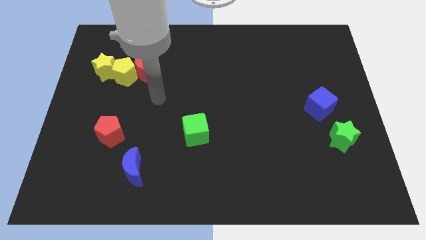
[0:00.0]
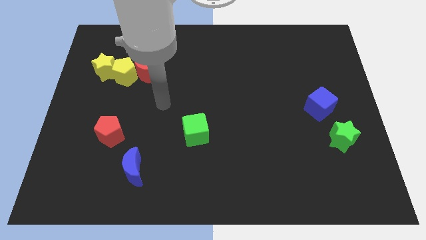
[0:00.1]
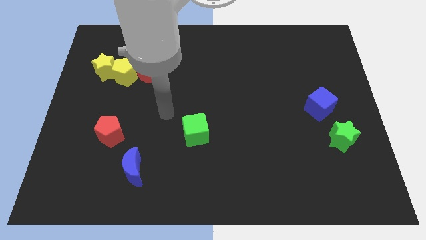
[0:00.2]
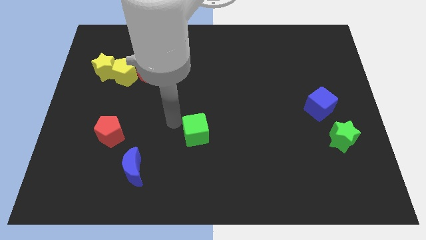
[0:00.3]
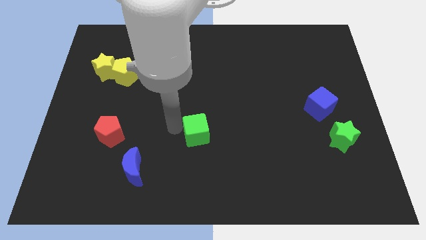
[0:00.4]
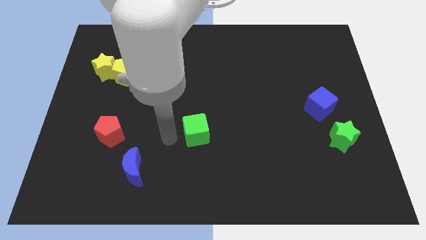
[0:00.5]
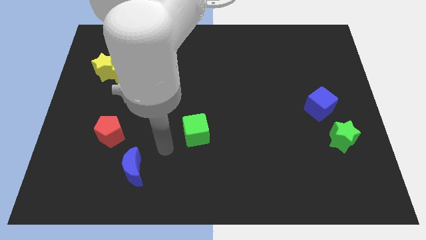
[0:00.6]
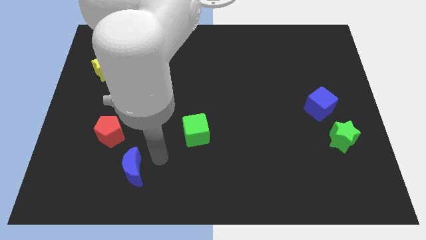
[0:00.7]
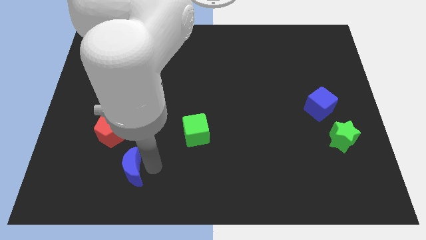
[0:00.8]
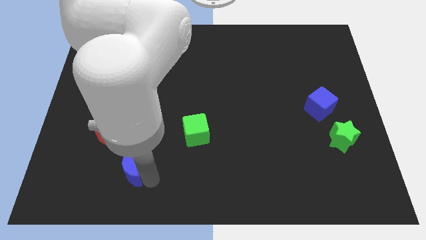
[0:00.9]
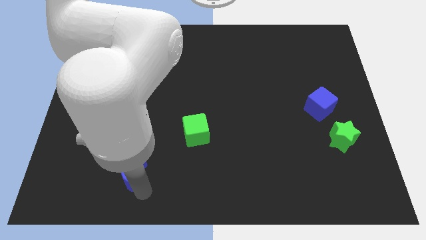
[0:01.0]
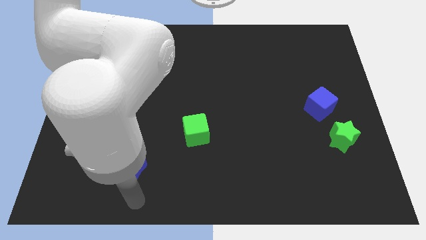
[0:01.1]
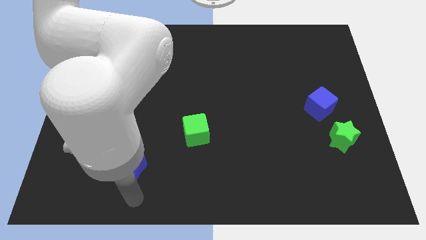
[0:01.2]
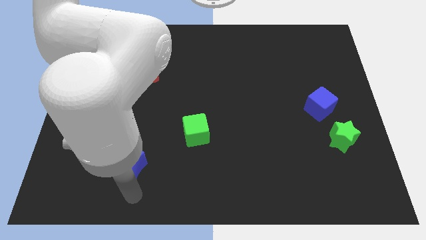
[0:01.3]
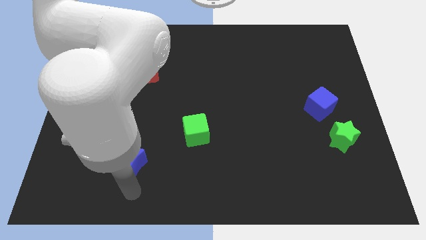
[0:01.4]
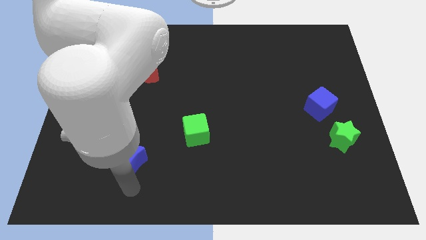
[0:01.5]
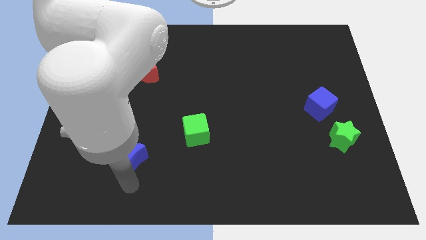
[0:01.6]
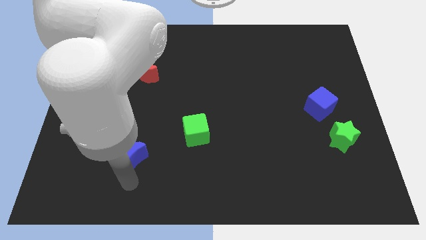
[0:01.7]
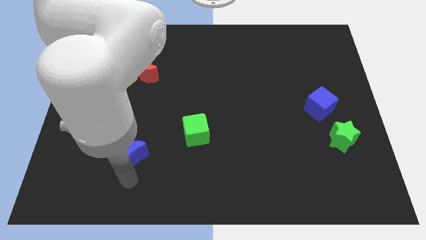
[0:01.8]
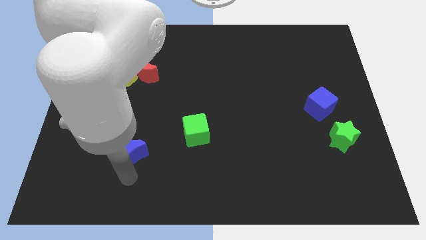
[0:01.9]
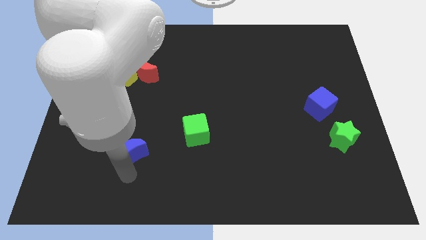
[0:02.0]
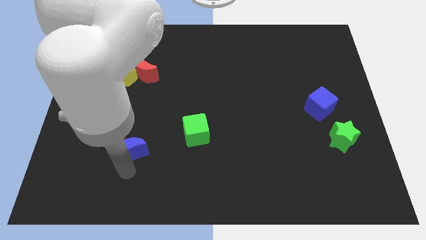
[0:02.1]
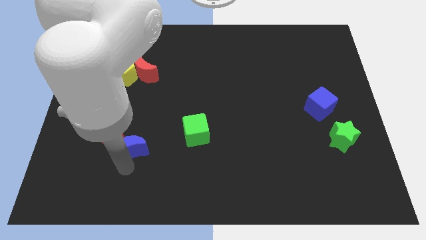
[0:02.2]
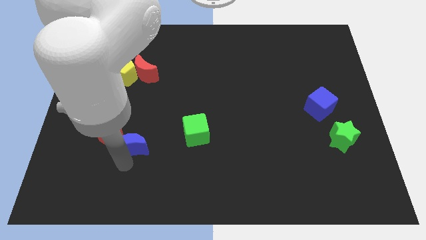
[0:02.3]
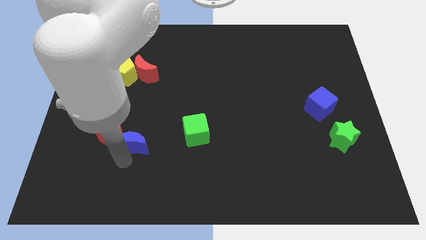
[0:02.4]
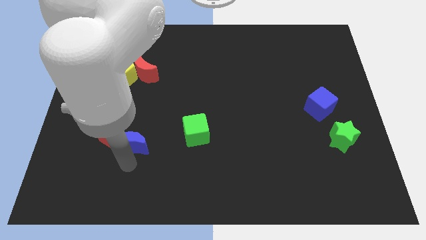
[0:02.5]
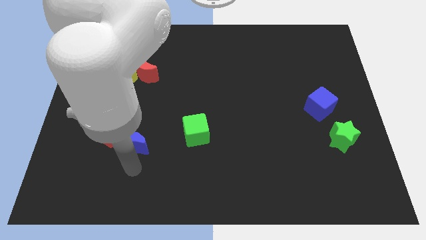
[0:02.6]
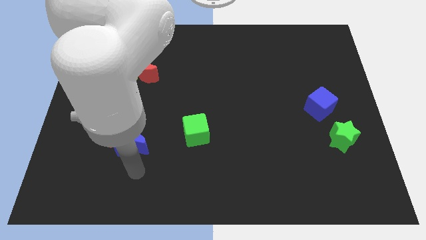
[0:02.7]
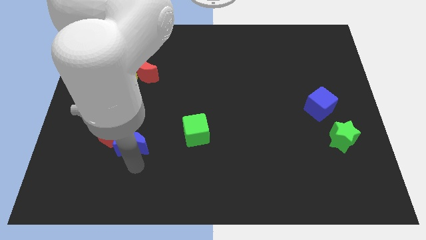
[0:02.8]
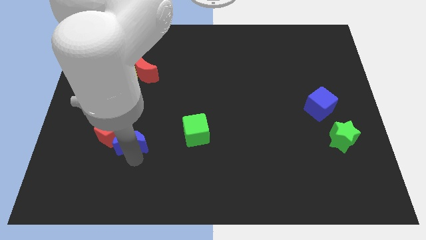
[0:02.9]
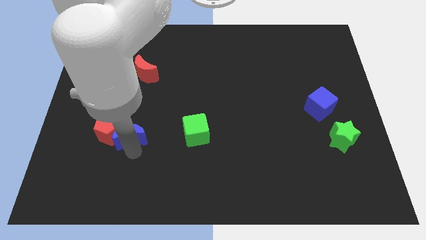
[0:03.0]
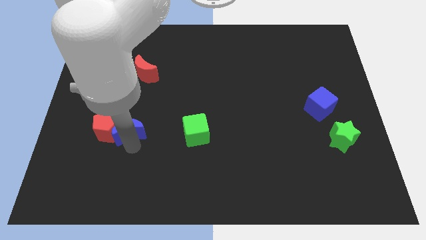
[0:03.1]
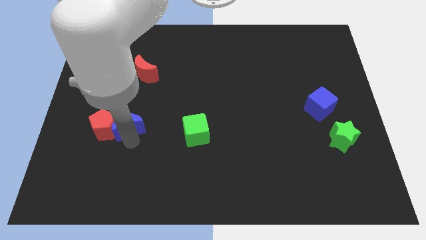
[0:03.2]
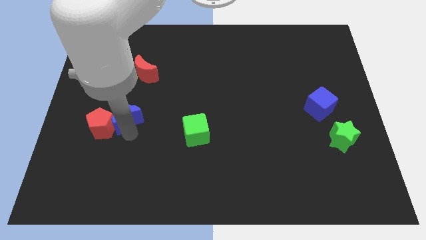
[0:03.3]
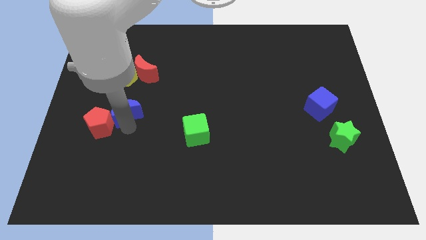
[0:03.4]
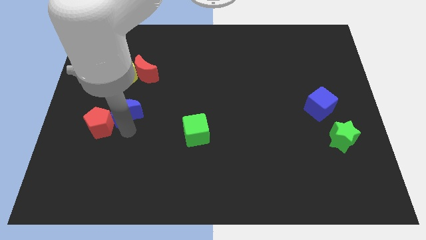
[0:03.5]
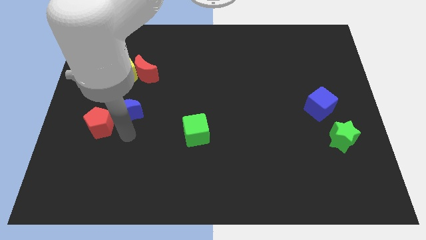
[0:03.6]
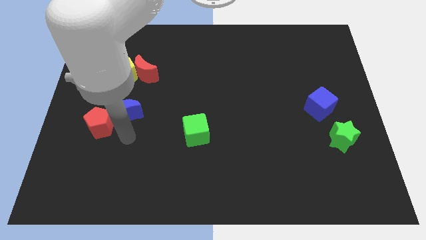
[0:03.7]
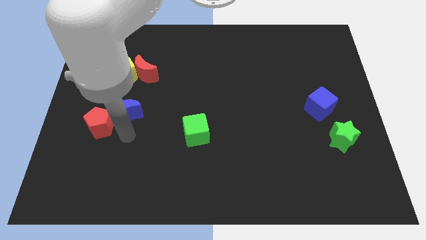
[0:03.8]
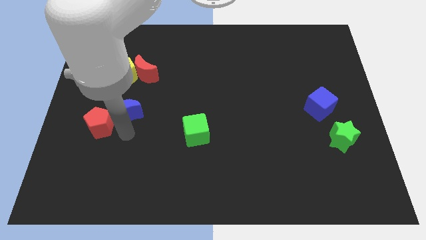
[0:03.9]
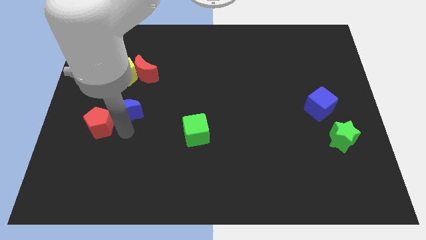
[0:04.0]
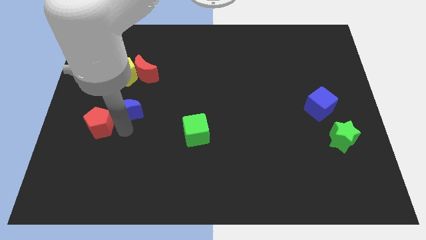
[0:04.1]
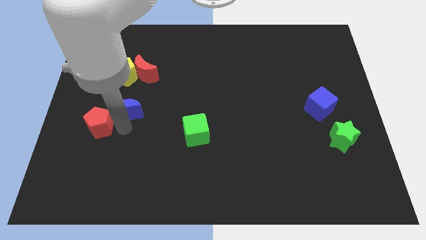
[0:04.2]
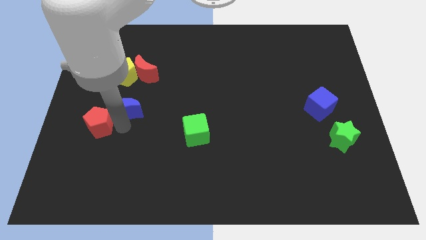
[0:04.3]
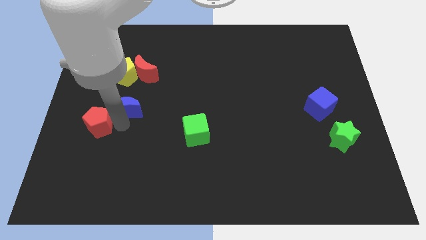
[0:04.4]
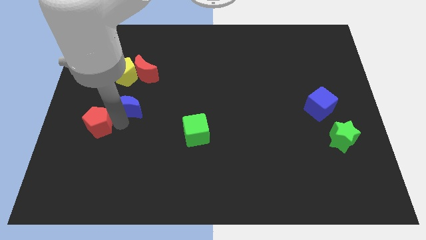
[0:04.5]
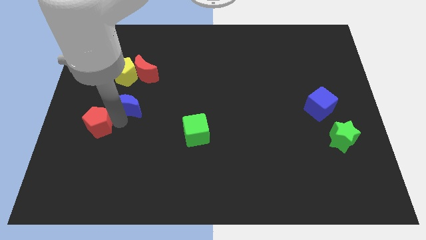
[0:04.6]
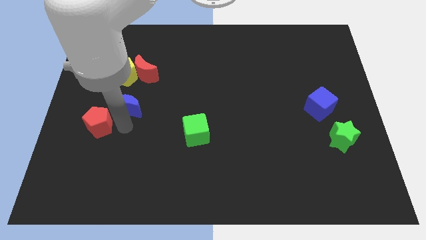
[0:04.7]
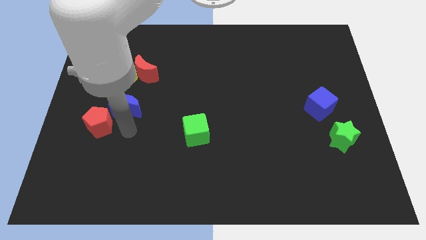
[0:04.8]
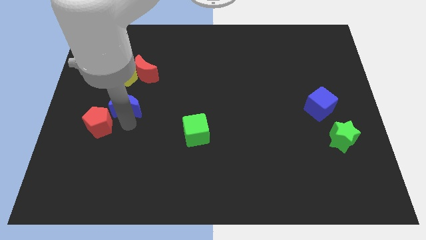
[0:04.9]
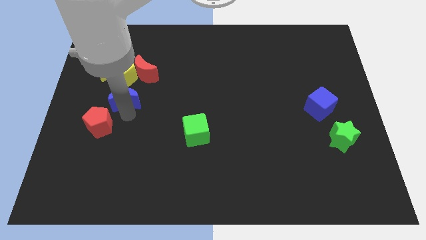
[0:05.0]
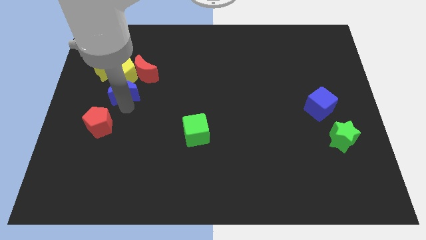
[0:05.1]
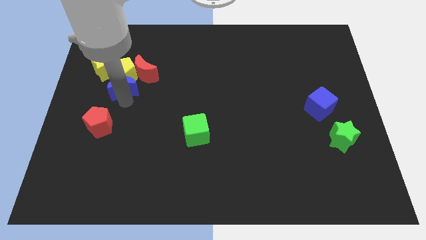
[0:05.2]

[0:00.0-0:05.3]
move the blue moon towards the yellow pentagon

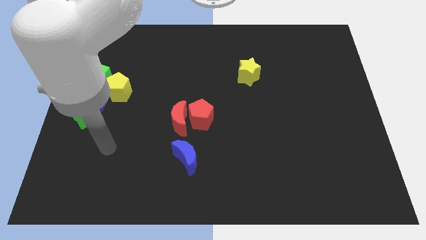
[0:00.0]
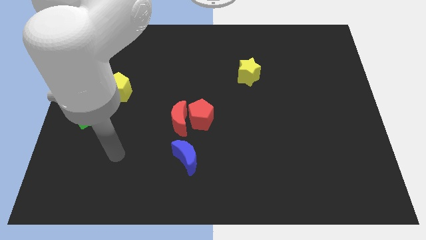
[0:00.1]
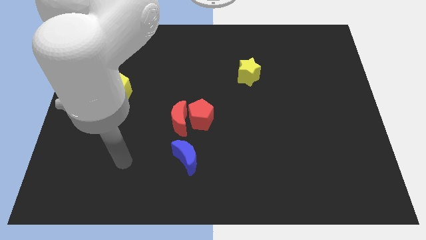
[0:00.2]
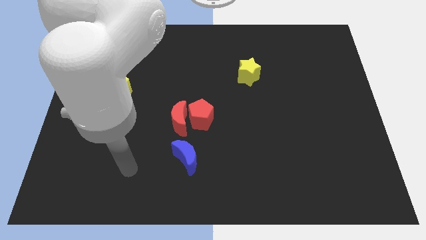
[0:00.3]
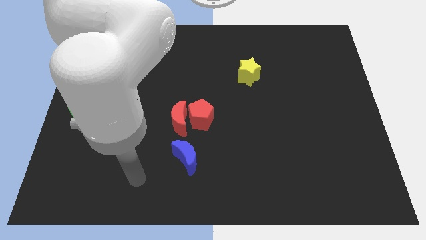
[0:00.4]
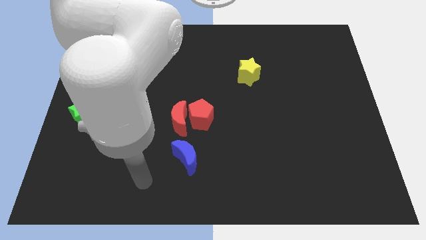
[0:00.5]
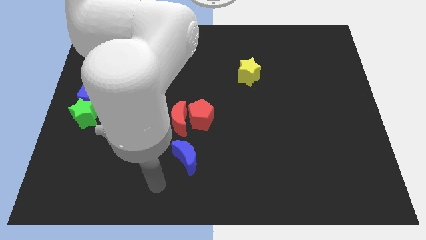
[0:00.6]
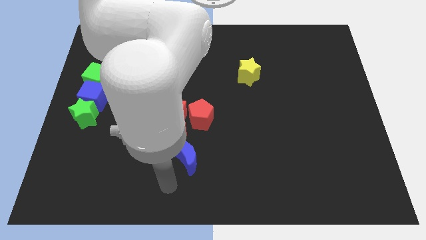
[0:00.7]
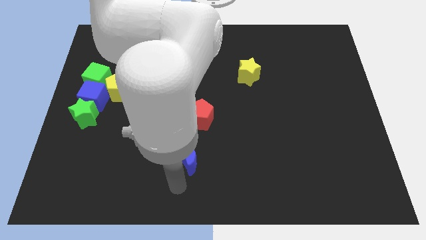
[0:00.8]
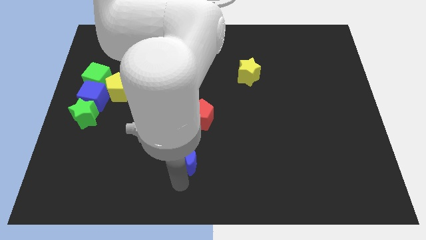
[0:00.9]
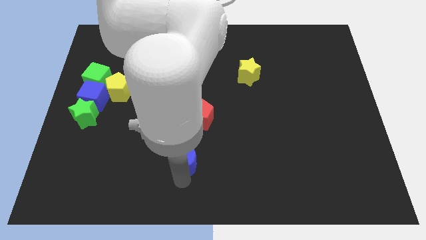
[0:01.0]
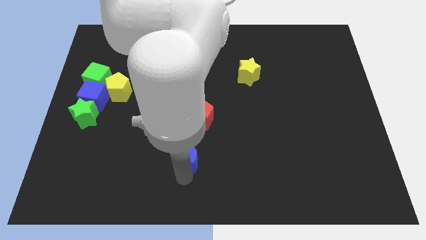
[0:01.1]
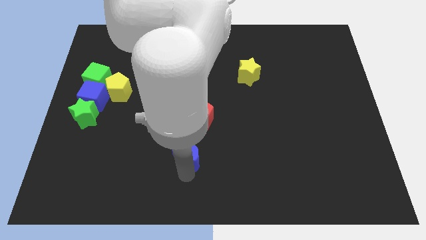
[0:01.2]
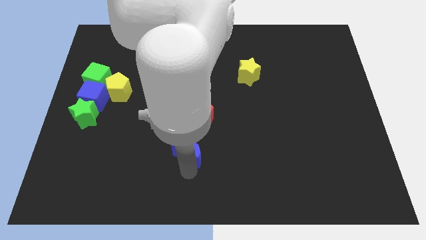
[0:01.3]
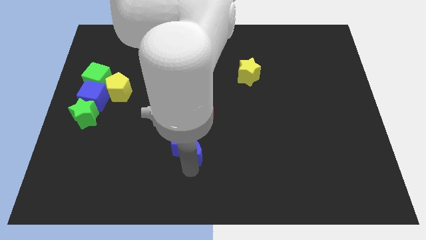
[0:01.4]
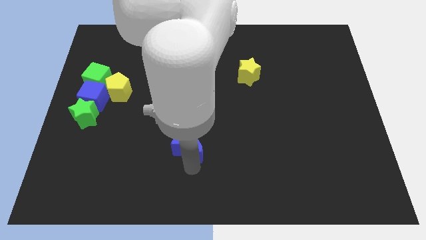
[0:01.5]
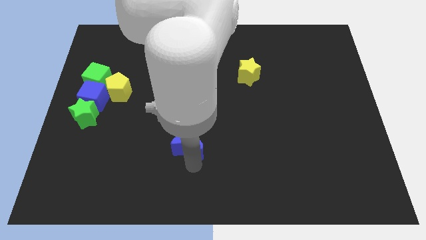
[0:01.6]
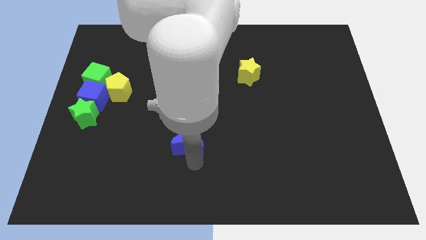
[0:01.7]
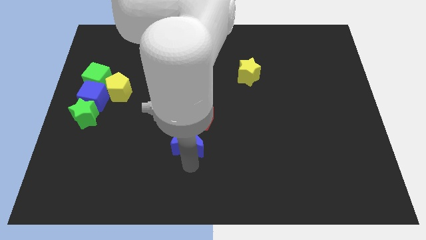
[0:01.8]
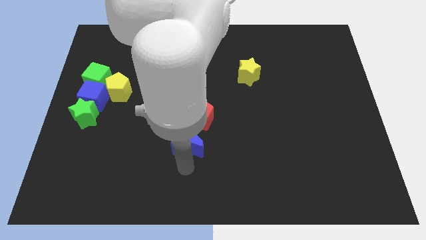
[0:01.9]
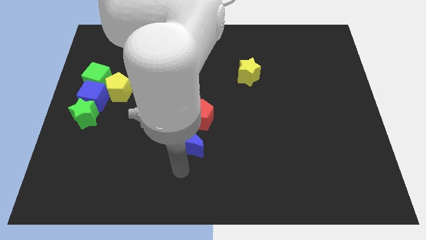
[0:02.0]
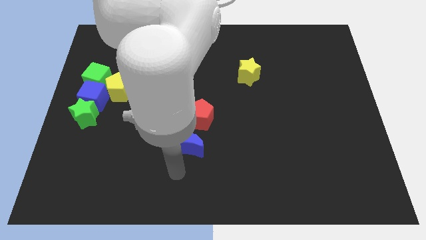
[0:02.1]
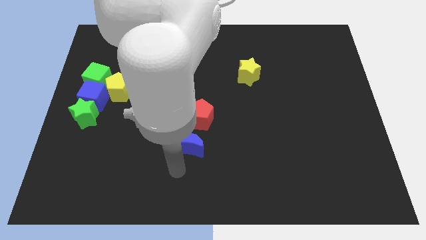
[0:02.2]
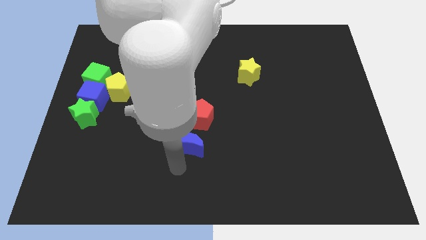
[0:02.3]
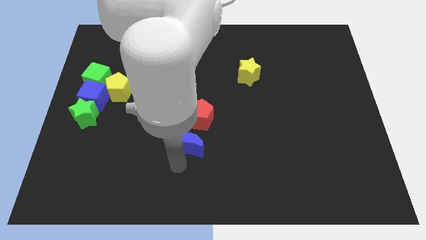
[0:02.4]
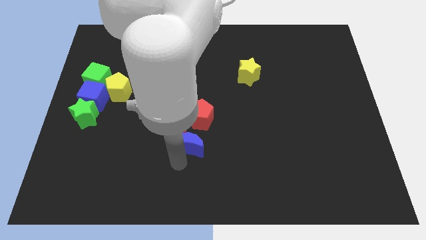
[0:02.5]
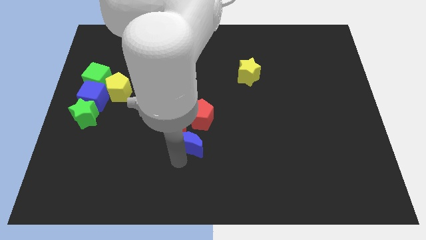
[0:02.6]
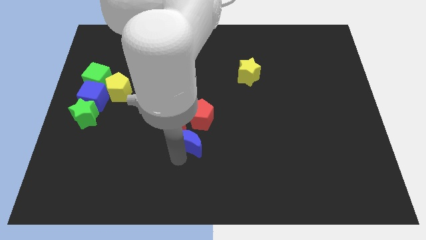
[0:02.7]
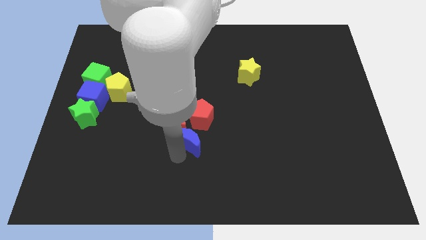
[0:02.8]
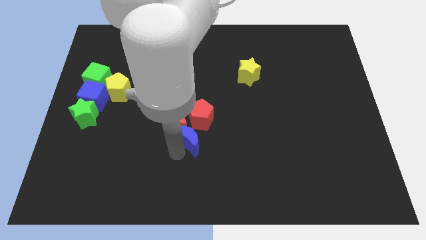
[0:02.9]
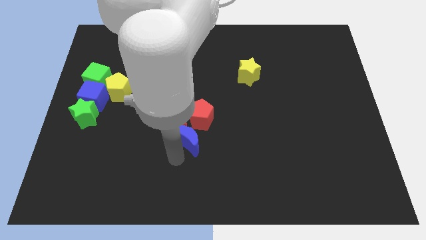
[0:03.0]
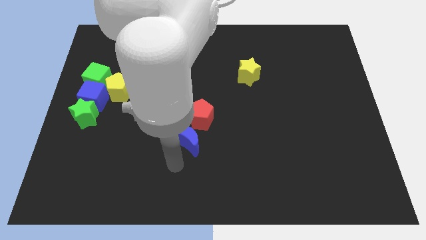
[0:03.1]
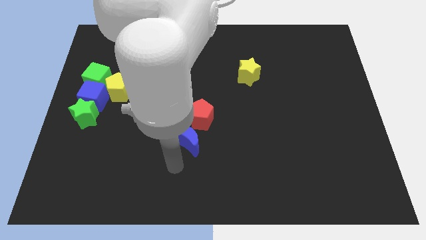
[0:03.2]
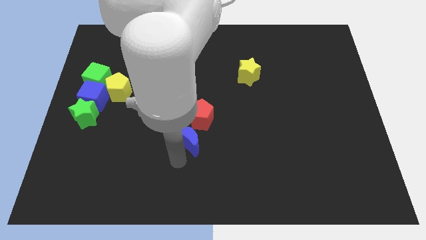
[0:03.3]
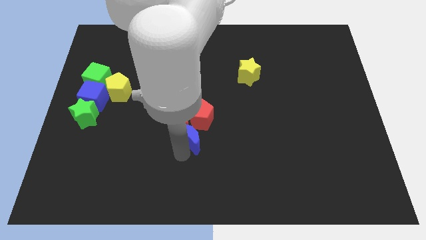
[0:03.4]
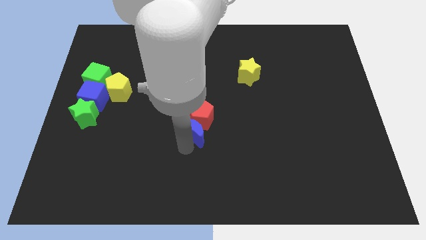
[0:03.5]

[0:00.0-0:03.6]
push the blue moon next to the red pentagon
